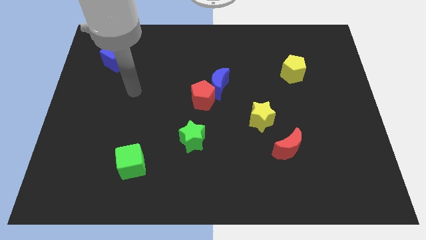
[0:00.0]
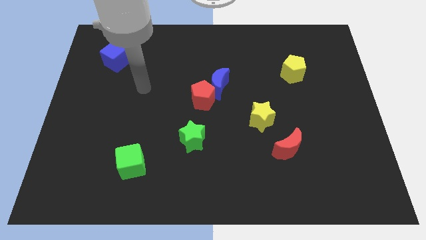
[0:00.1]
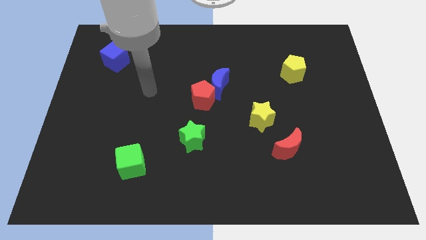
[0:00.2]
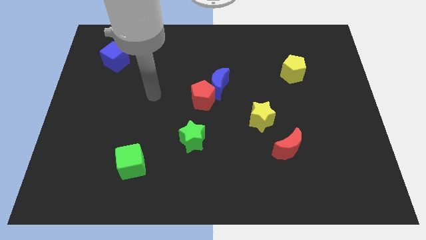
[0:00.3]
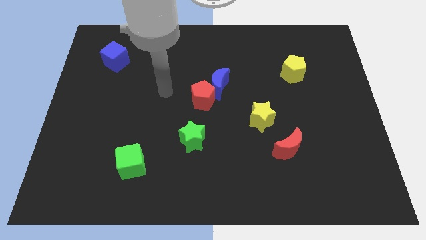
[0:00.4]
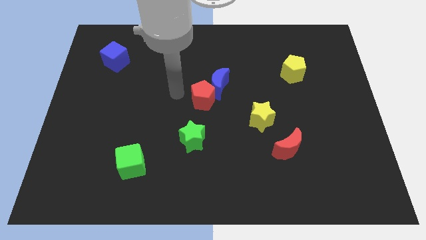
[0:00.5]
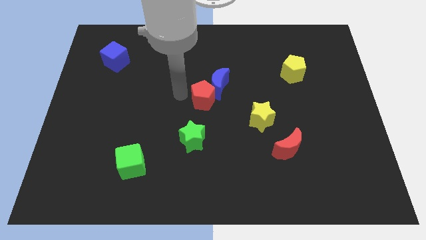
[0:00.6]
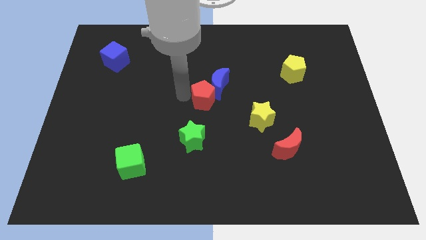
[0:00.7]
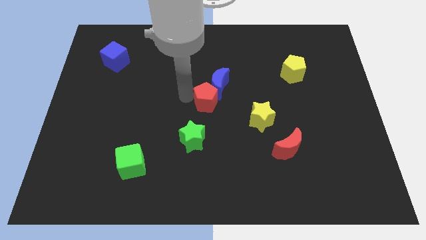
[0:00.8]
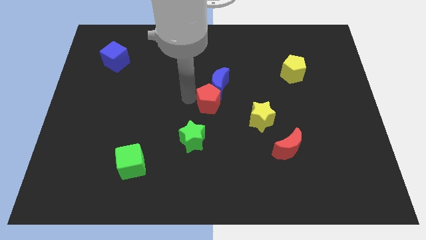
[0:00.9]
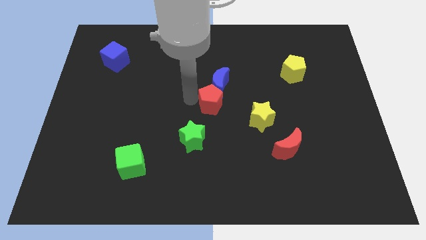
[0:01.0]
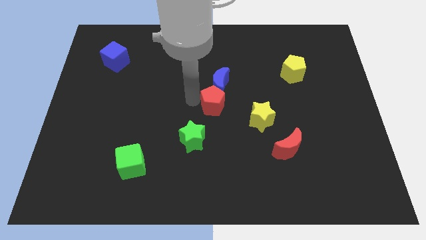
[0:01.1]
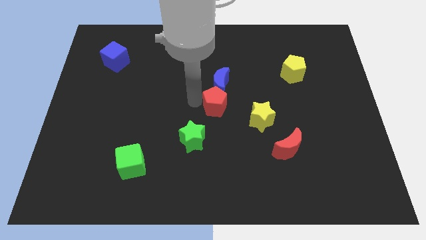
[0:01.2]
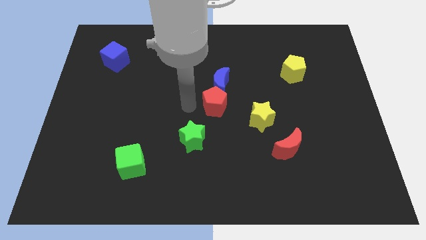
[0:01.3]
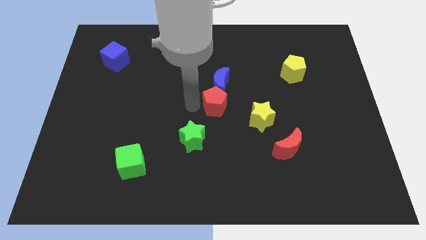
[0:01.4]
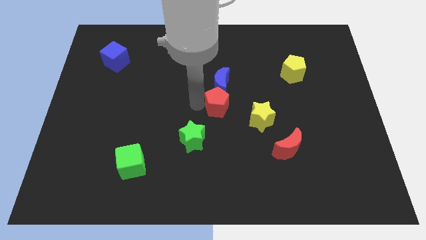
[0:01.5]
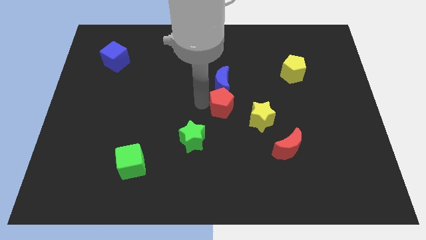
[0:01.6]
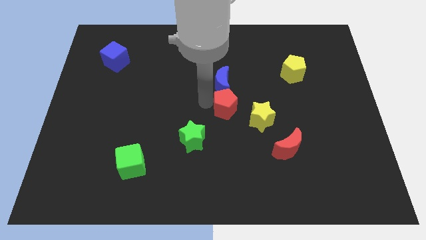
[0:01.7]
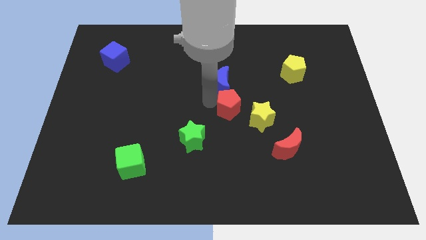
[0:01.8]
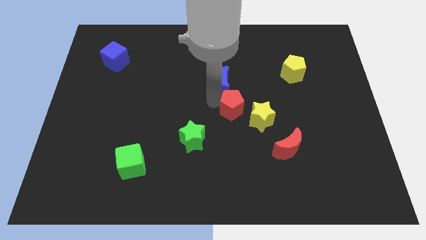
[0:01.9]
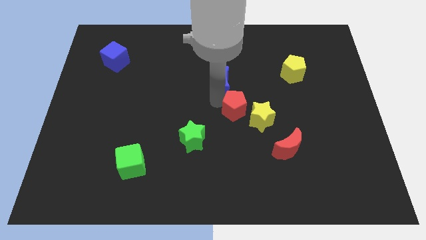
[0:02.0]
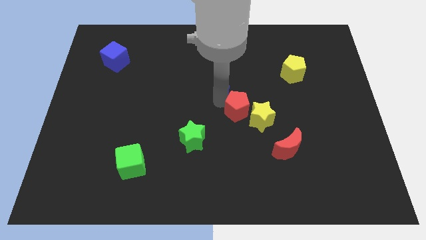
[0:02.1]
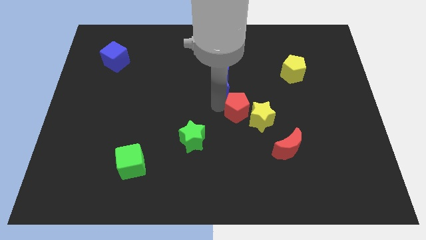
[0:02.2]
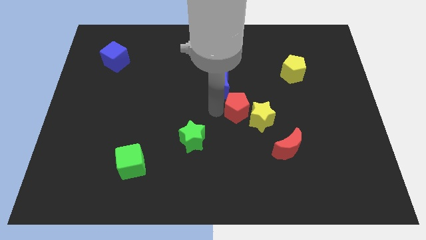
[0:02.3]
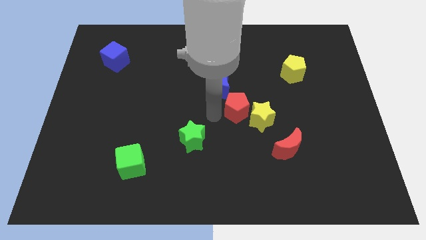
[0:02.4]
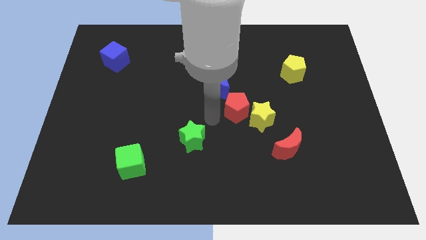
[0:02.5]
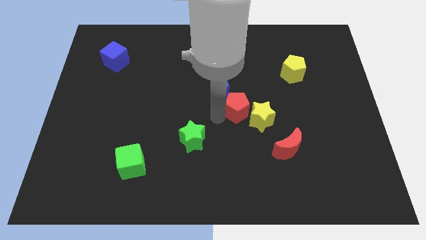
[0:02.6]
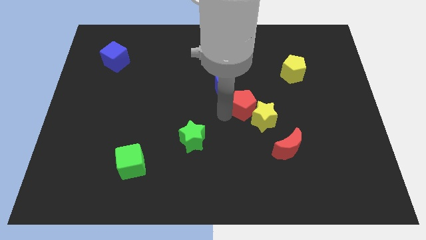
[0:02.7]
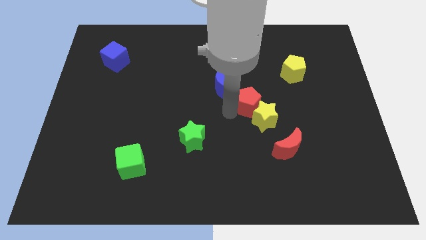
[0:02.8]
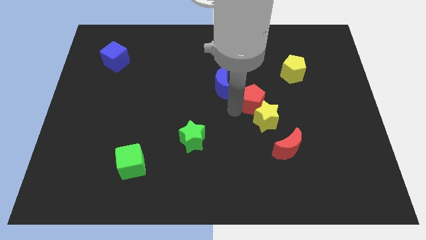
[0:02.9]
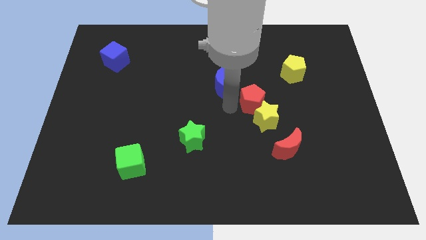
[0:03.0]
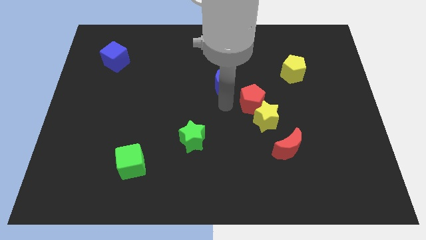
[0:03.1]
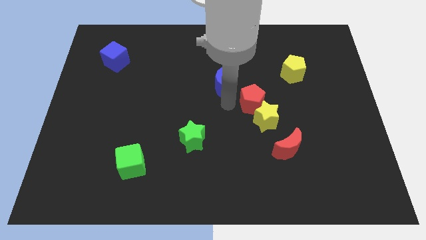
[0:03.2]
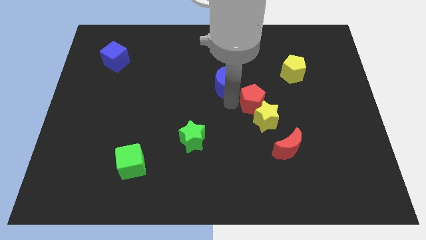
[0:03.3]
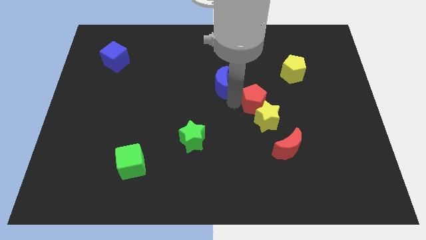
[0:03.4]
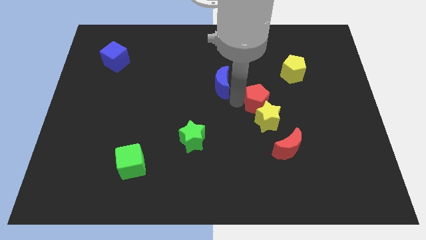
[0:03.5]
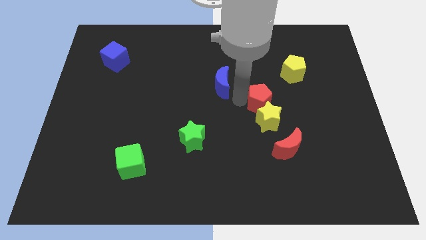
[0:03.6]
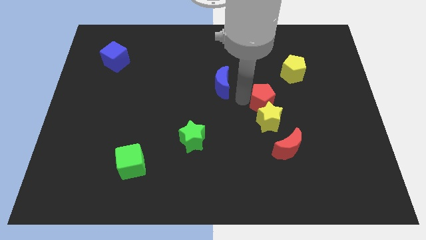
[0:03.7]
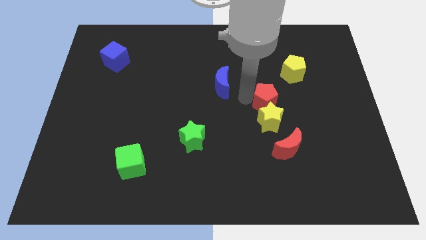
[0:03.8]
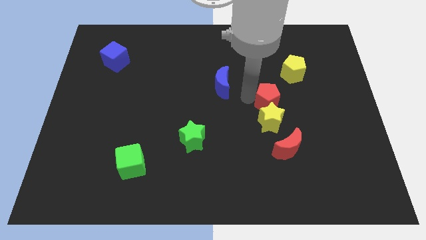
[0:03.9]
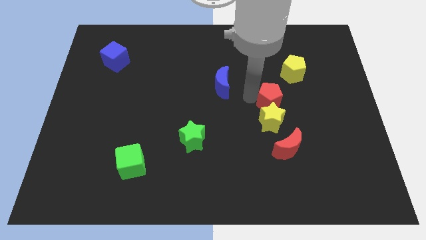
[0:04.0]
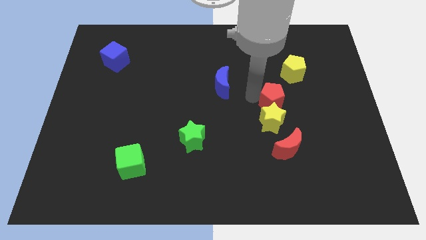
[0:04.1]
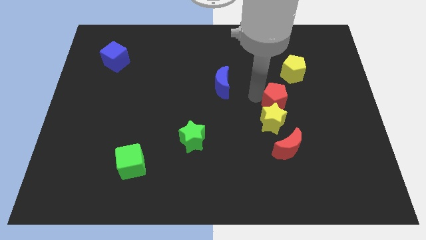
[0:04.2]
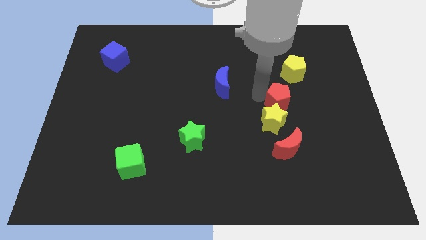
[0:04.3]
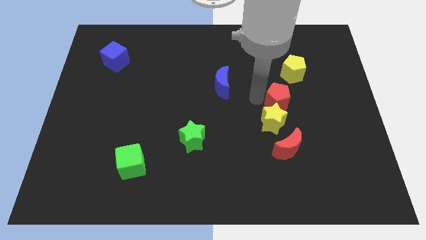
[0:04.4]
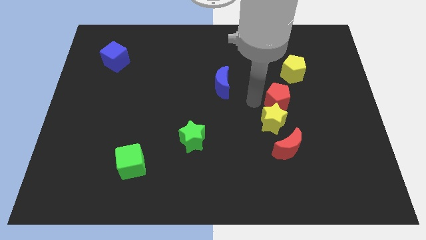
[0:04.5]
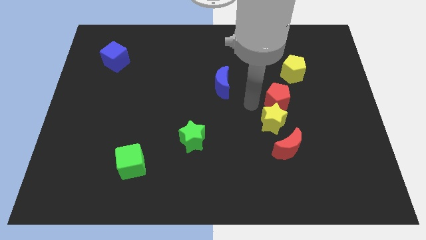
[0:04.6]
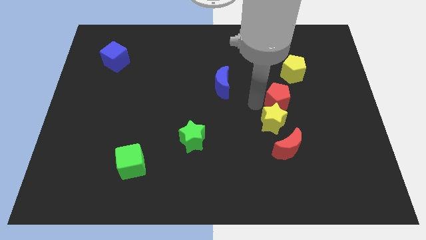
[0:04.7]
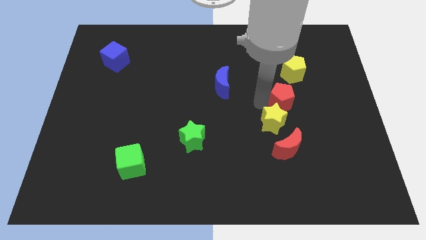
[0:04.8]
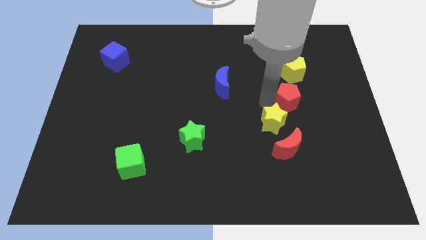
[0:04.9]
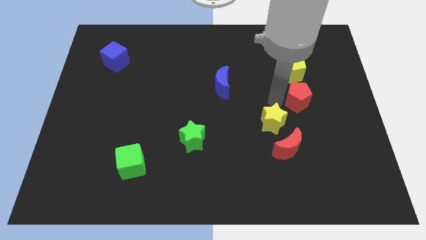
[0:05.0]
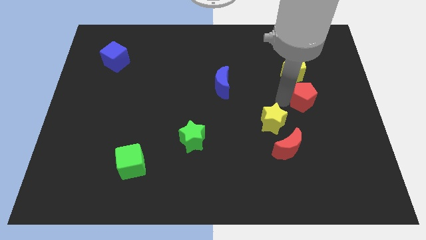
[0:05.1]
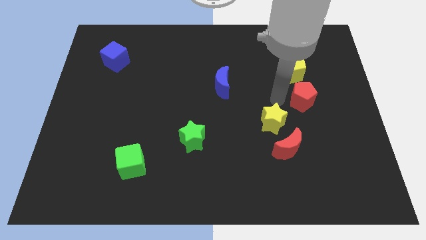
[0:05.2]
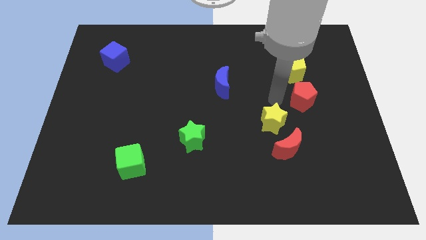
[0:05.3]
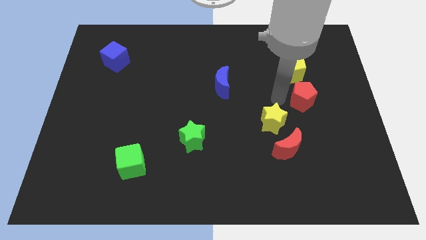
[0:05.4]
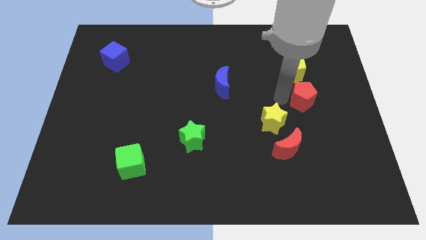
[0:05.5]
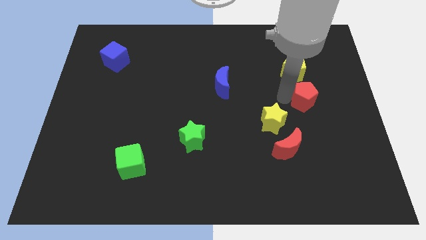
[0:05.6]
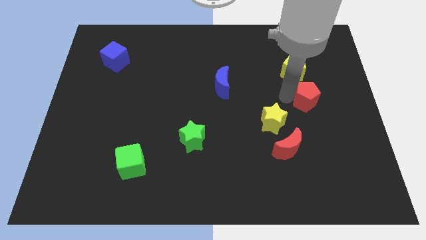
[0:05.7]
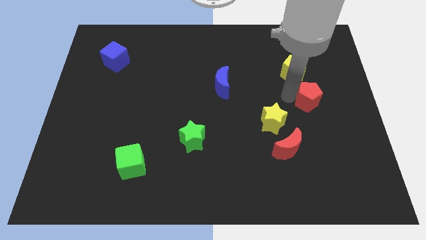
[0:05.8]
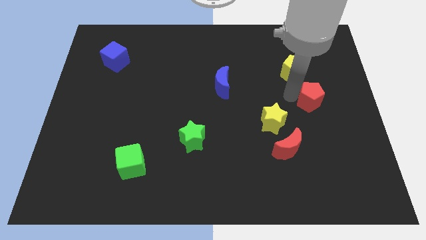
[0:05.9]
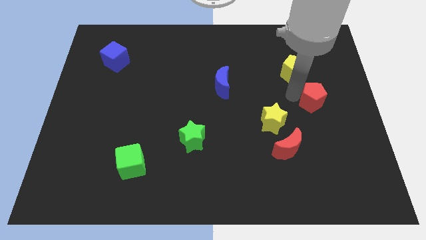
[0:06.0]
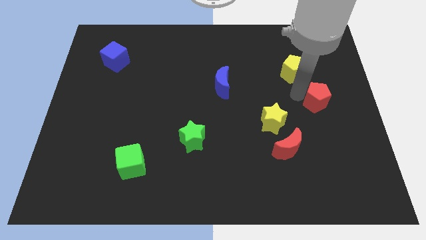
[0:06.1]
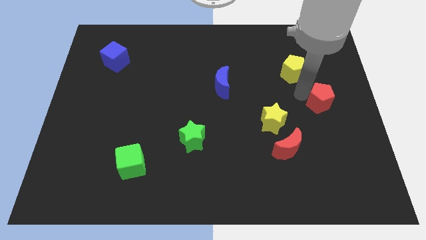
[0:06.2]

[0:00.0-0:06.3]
push the red pentagon to the right side
